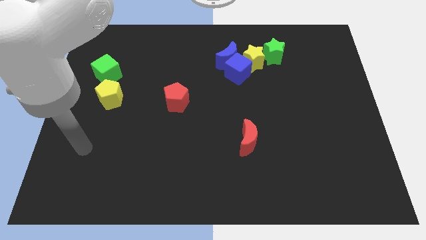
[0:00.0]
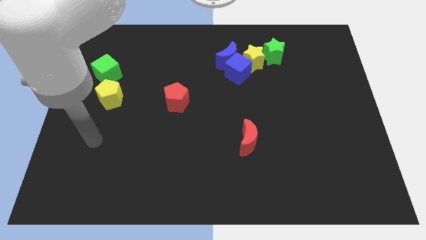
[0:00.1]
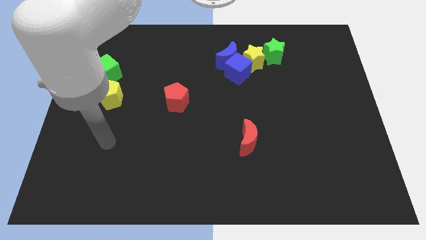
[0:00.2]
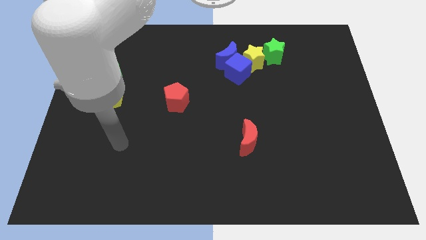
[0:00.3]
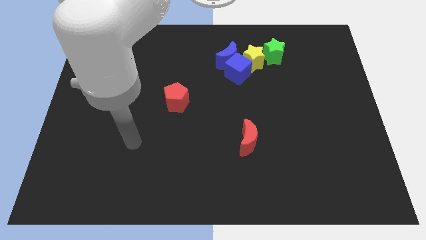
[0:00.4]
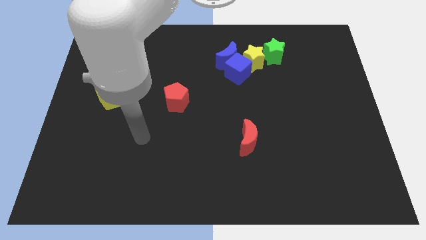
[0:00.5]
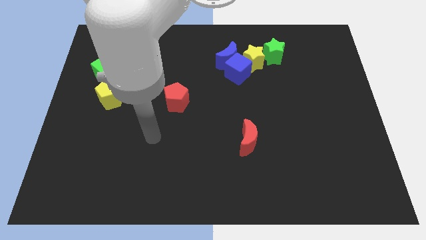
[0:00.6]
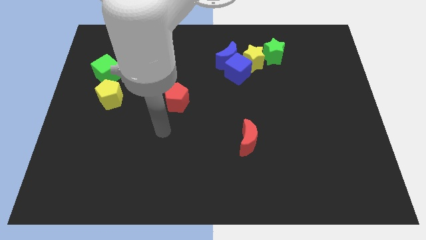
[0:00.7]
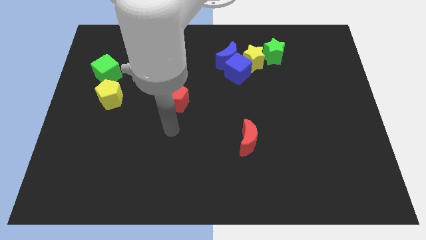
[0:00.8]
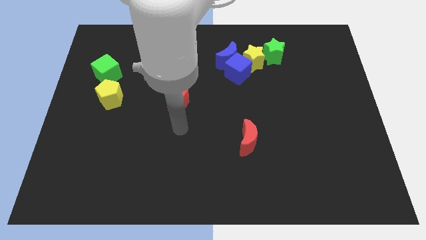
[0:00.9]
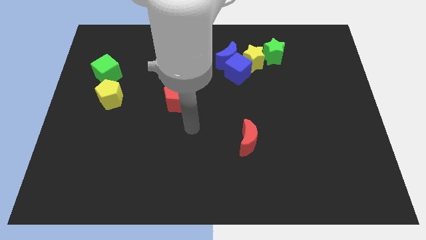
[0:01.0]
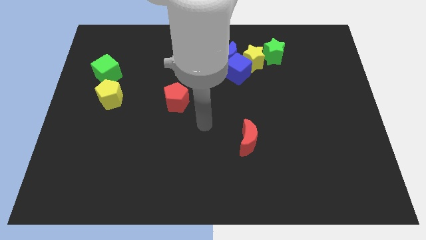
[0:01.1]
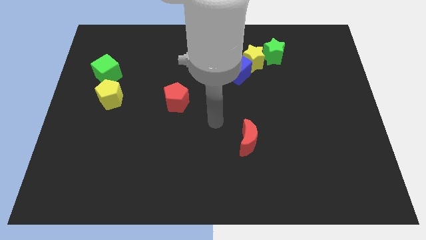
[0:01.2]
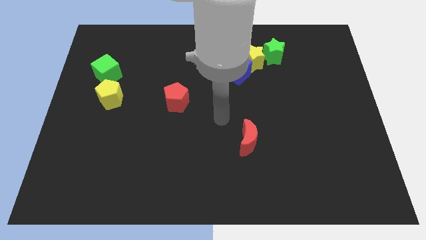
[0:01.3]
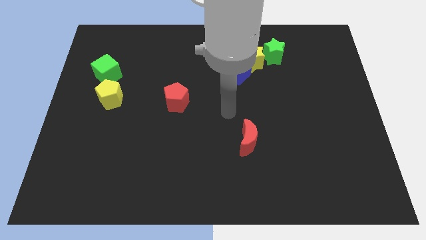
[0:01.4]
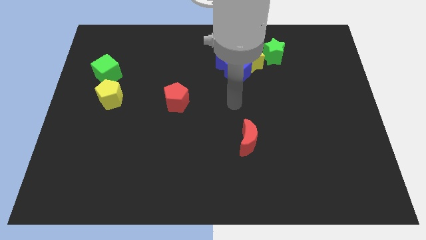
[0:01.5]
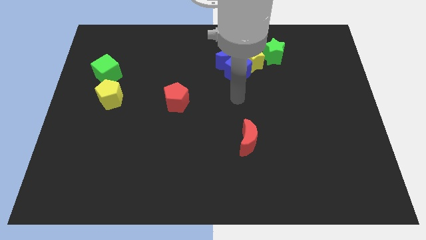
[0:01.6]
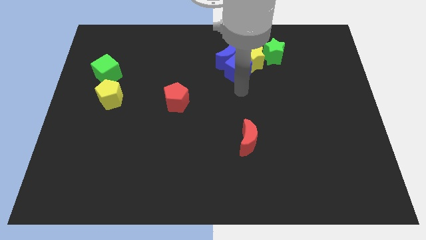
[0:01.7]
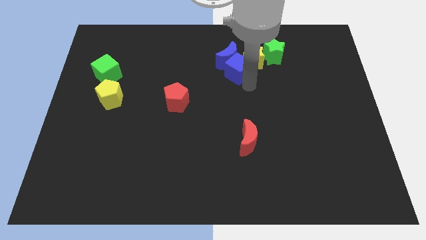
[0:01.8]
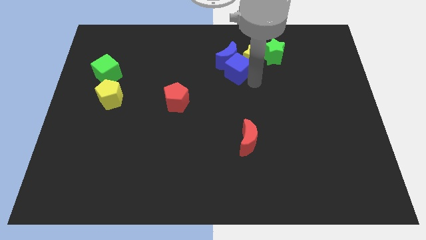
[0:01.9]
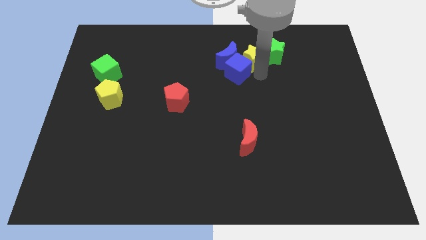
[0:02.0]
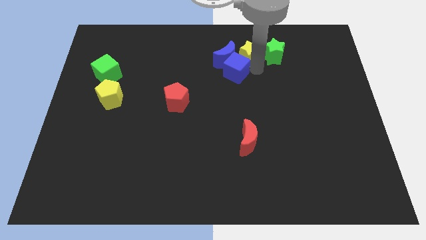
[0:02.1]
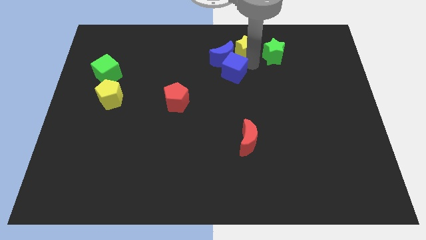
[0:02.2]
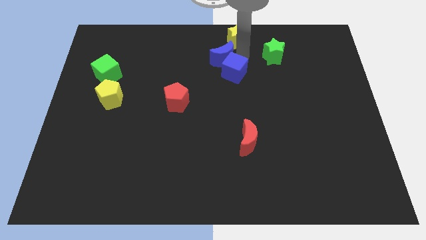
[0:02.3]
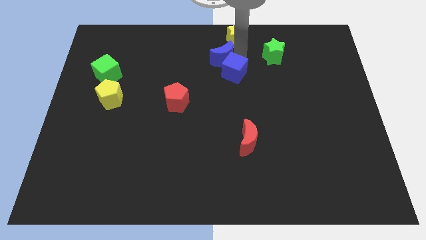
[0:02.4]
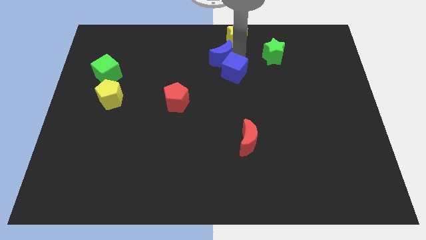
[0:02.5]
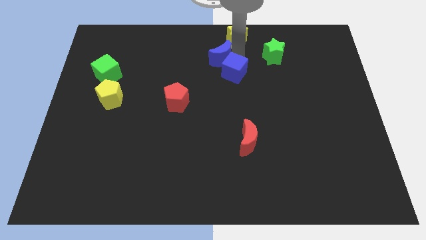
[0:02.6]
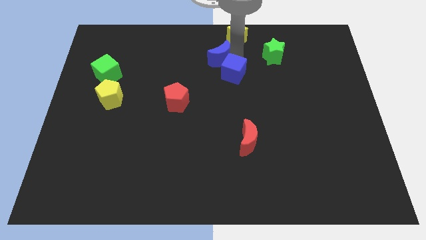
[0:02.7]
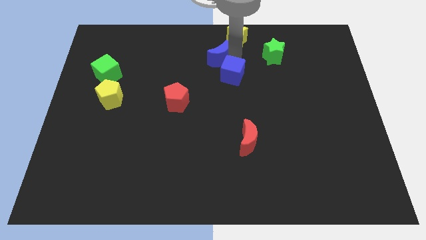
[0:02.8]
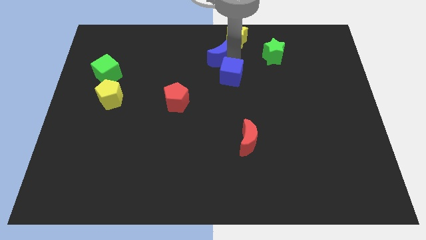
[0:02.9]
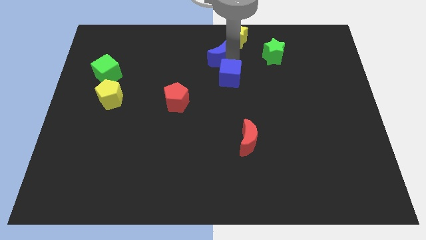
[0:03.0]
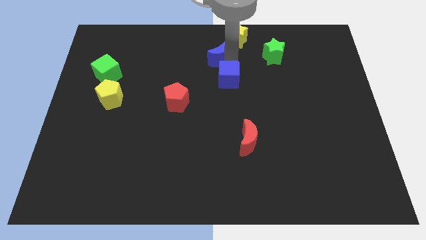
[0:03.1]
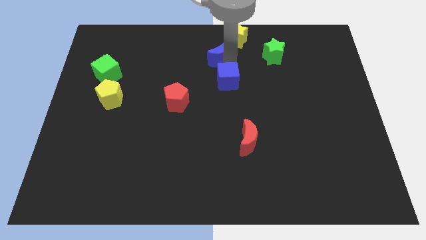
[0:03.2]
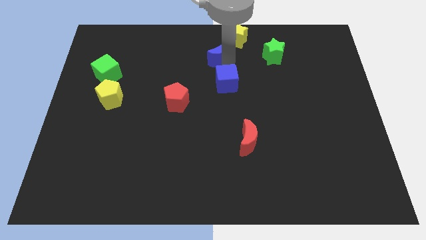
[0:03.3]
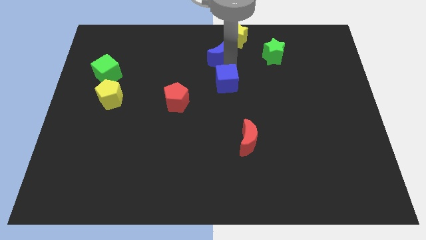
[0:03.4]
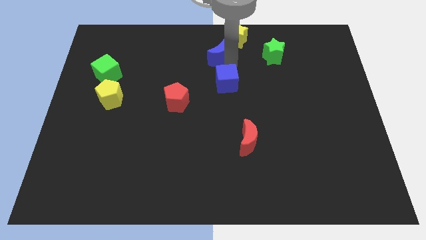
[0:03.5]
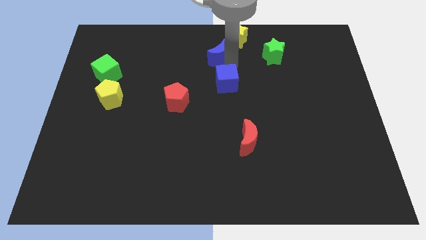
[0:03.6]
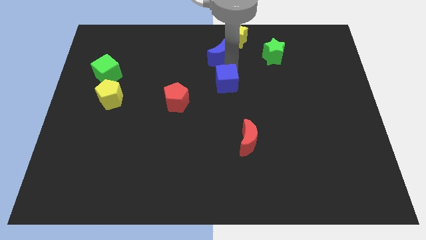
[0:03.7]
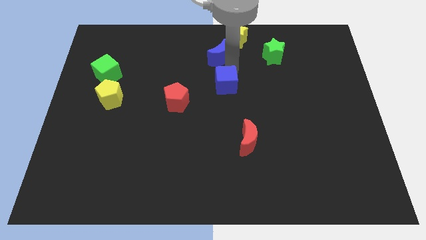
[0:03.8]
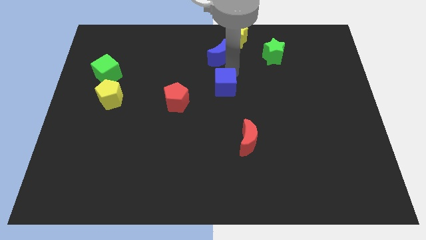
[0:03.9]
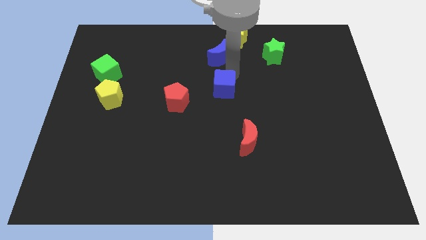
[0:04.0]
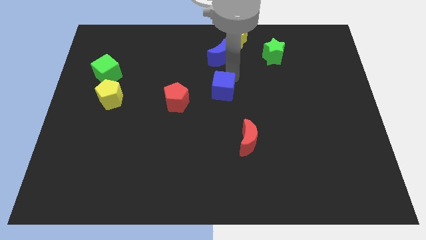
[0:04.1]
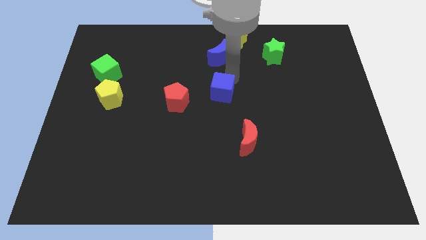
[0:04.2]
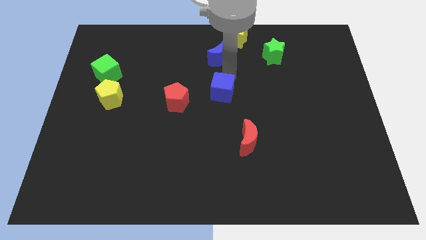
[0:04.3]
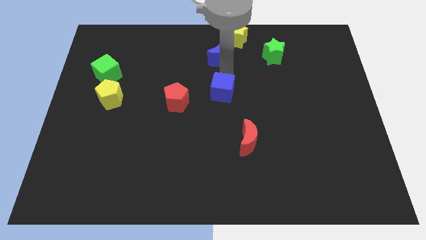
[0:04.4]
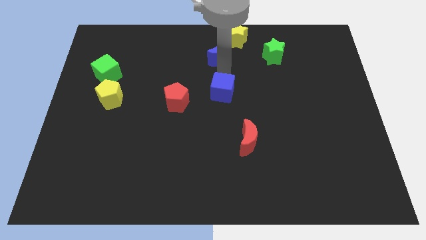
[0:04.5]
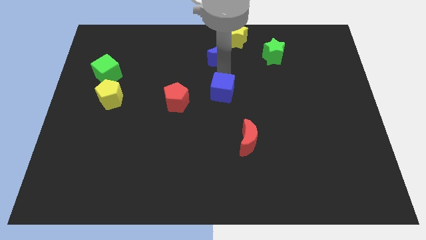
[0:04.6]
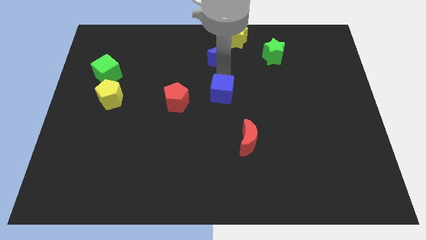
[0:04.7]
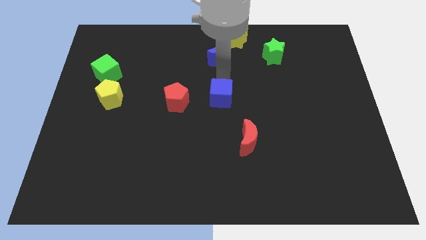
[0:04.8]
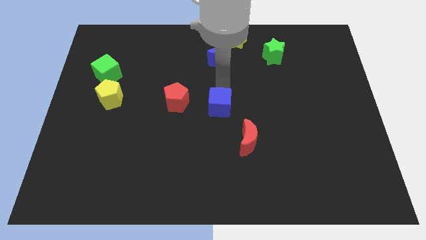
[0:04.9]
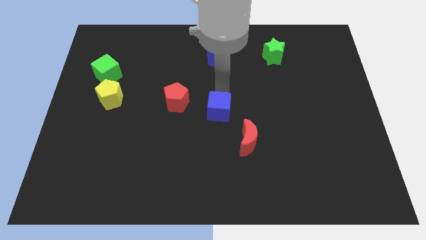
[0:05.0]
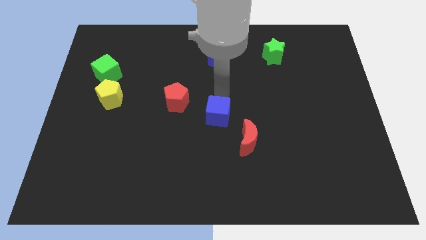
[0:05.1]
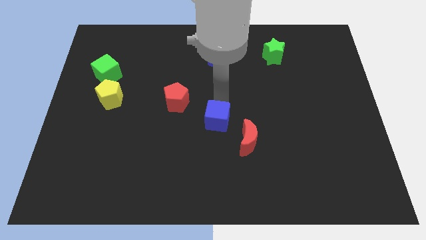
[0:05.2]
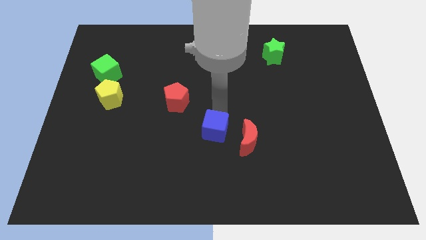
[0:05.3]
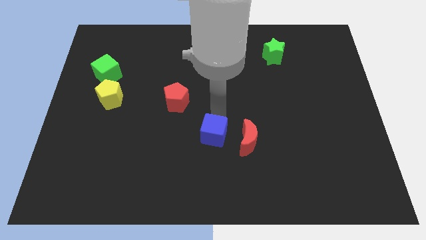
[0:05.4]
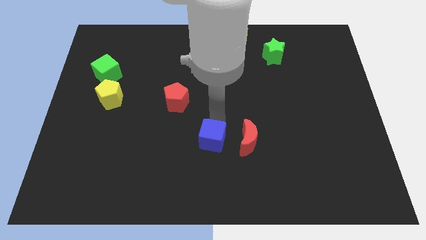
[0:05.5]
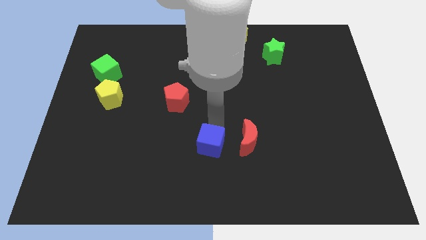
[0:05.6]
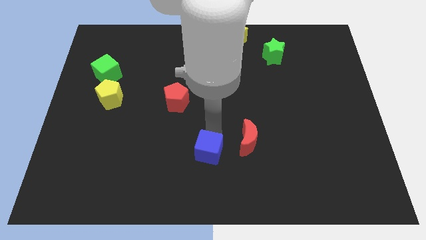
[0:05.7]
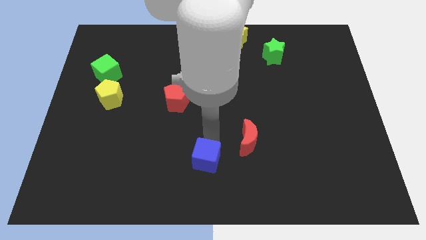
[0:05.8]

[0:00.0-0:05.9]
push the blue cube to the bottom side
